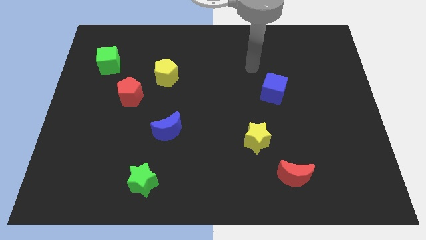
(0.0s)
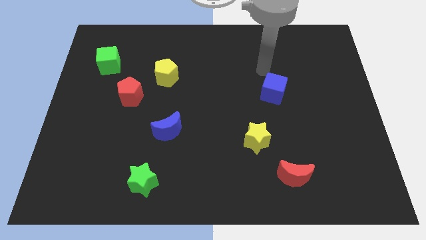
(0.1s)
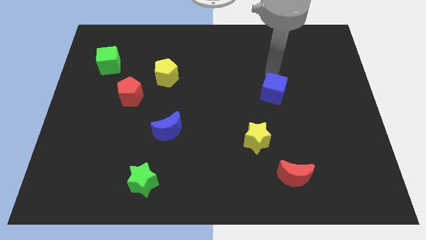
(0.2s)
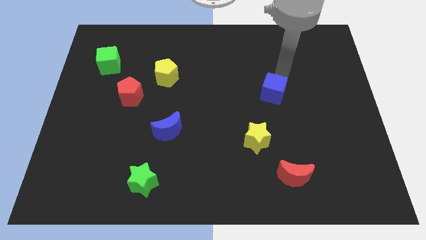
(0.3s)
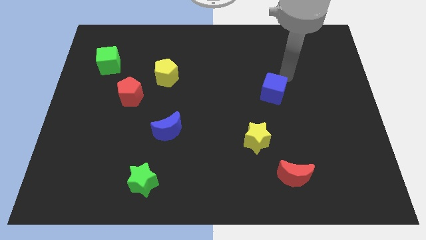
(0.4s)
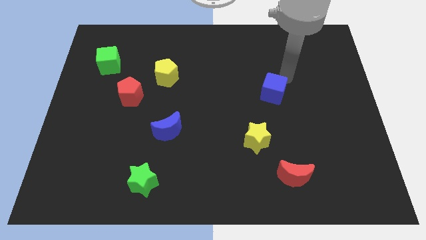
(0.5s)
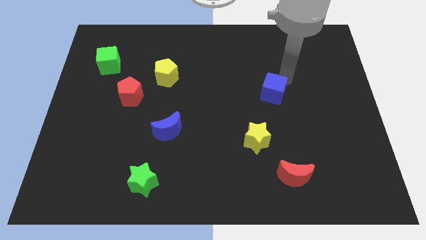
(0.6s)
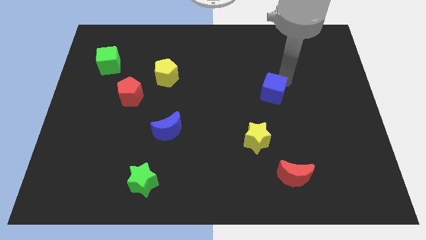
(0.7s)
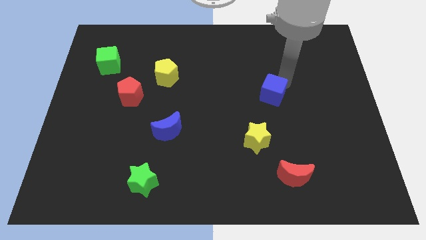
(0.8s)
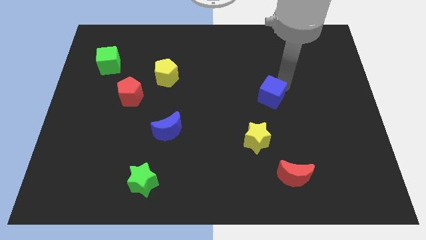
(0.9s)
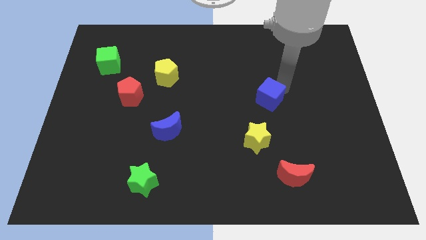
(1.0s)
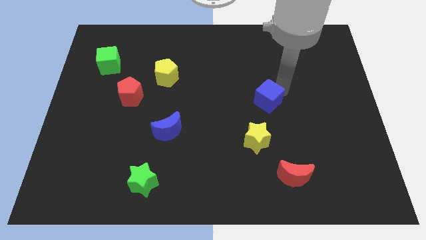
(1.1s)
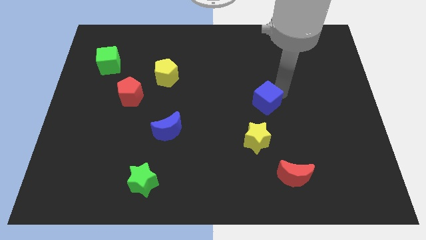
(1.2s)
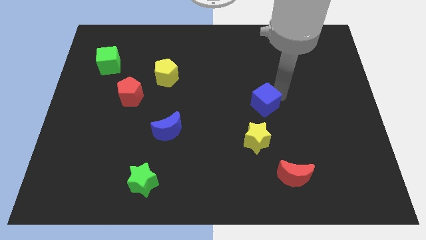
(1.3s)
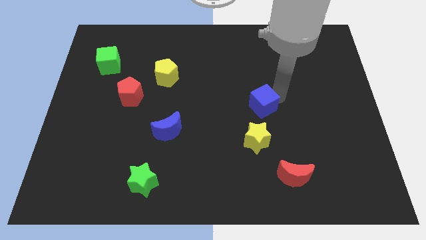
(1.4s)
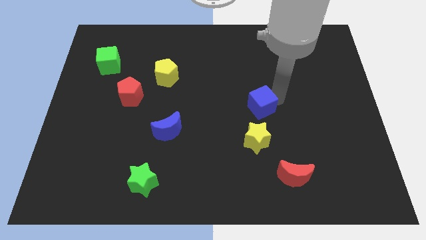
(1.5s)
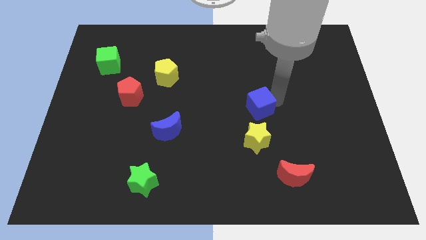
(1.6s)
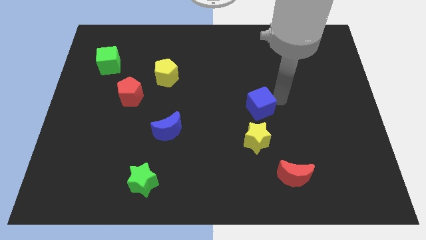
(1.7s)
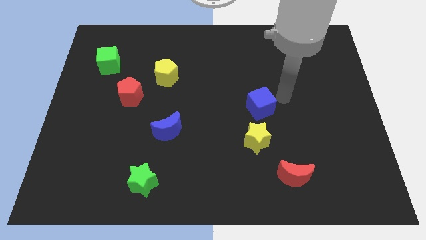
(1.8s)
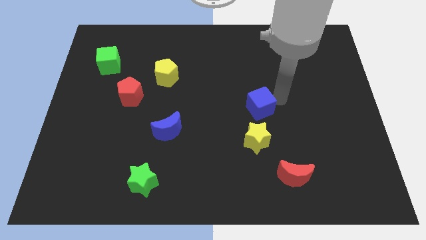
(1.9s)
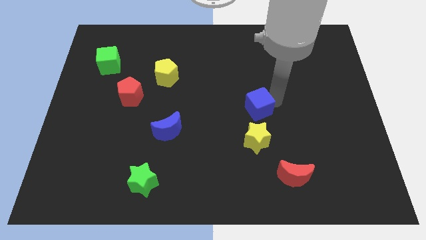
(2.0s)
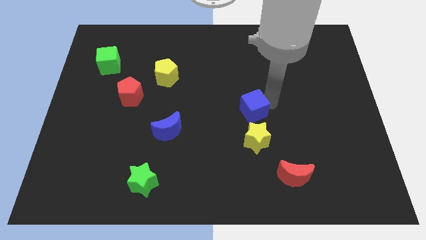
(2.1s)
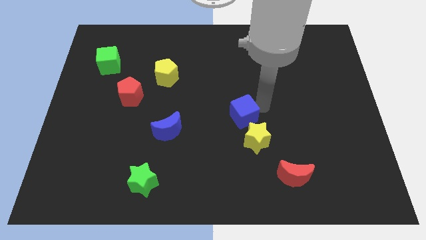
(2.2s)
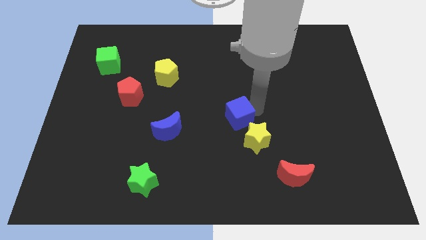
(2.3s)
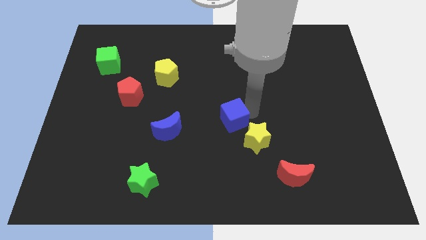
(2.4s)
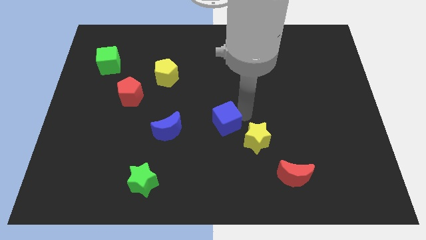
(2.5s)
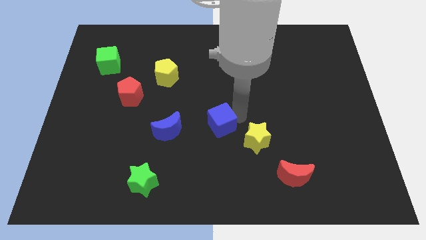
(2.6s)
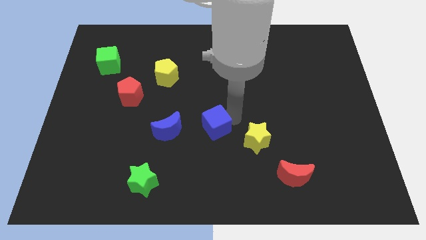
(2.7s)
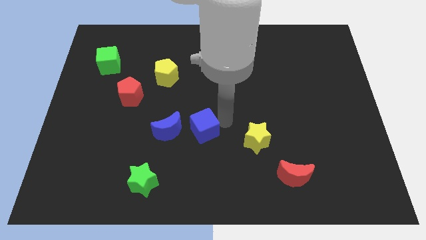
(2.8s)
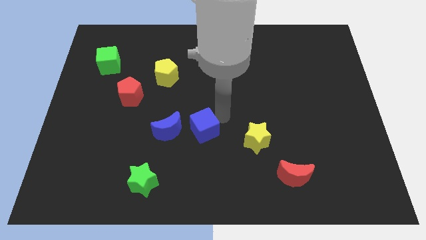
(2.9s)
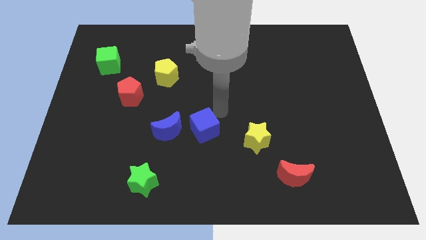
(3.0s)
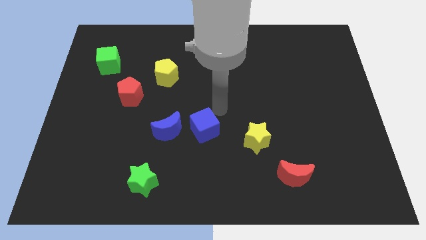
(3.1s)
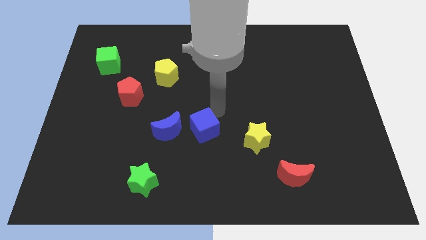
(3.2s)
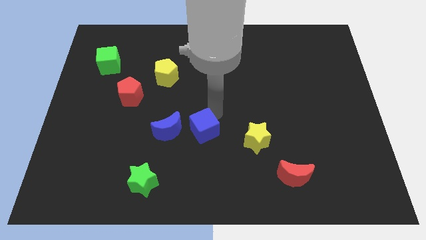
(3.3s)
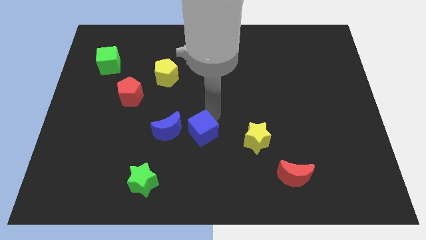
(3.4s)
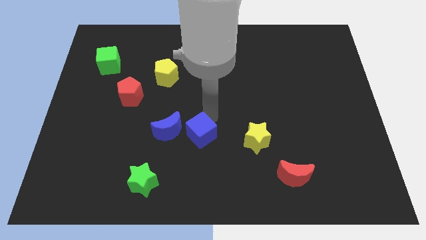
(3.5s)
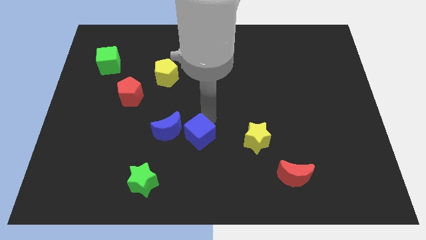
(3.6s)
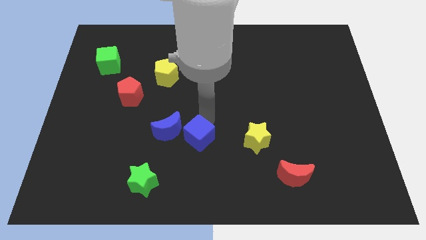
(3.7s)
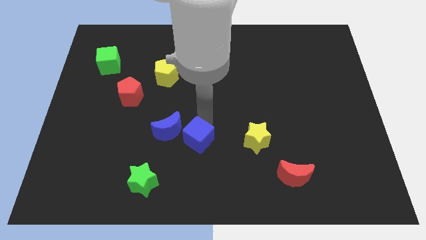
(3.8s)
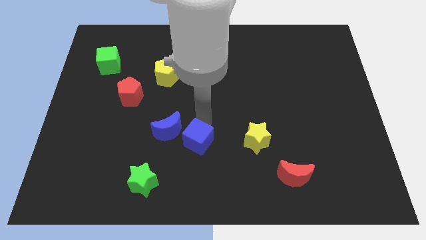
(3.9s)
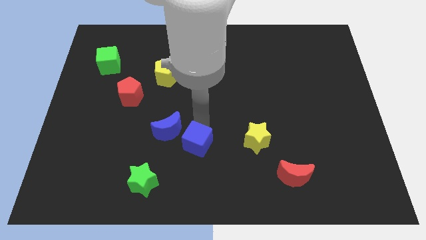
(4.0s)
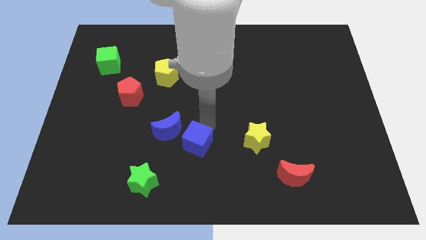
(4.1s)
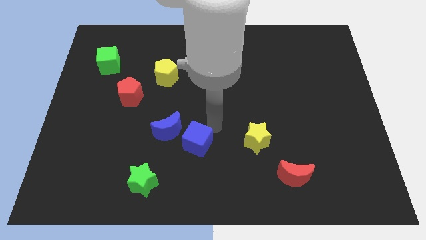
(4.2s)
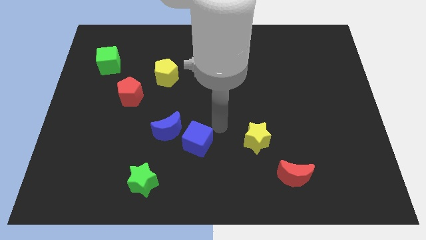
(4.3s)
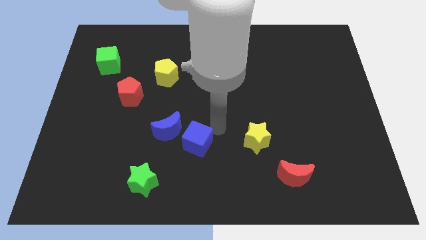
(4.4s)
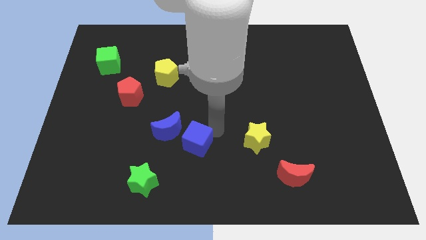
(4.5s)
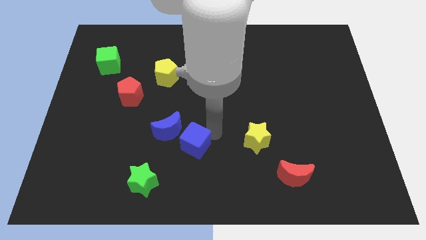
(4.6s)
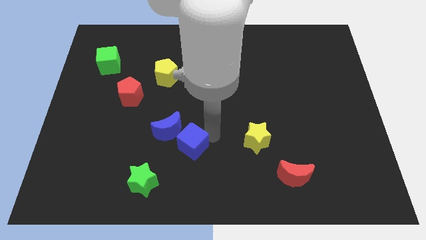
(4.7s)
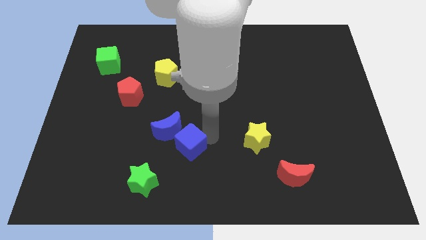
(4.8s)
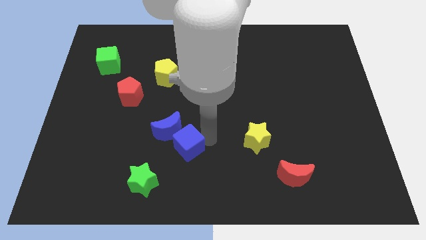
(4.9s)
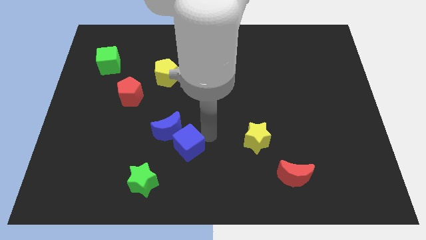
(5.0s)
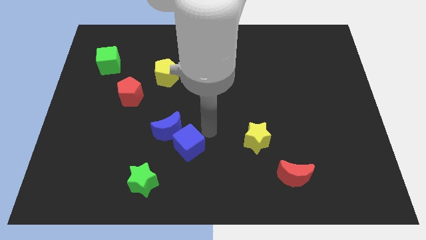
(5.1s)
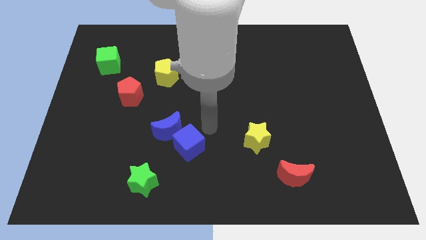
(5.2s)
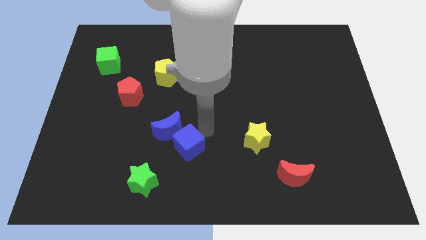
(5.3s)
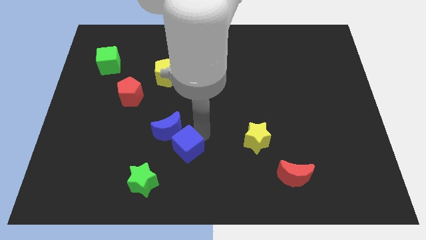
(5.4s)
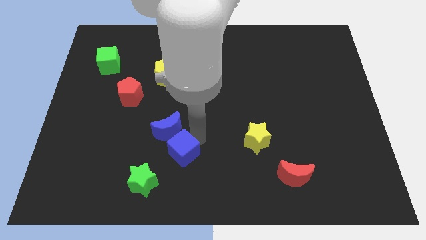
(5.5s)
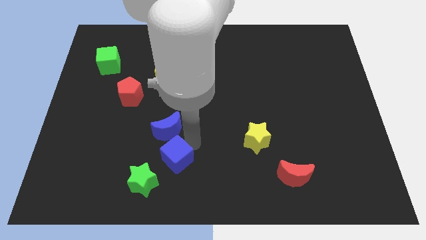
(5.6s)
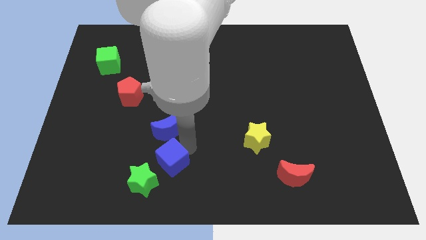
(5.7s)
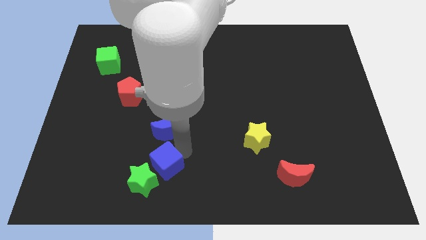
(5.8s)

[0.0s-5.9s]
move the blue cube to the green star
